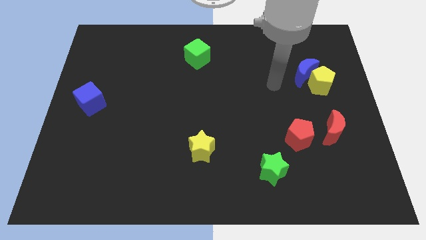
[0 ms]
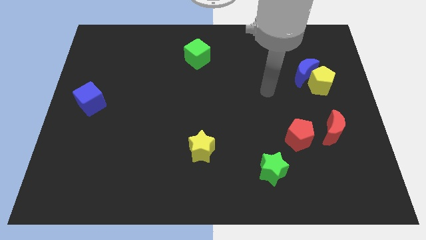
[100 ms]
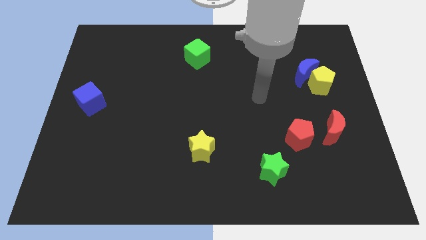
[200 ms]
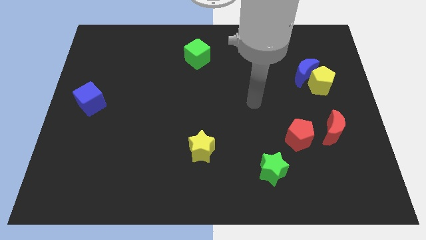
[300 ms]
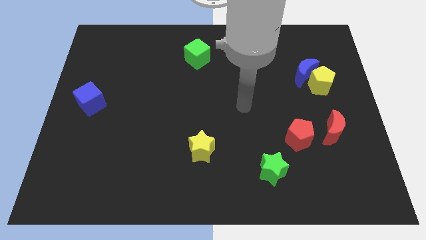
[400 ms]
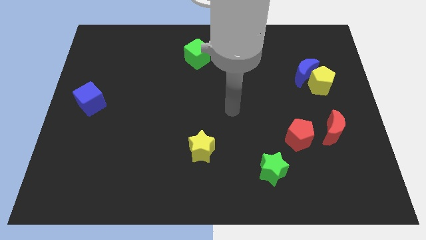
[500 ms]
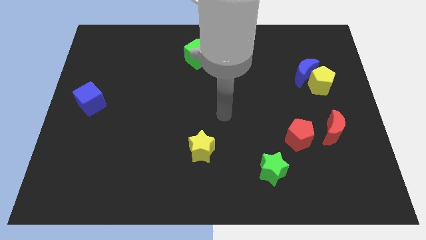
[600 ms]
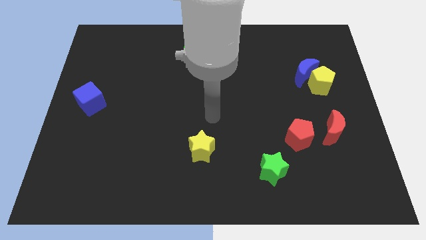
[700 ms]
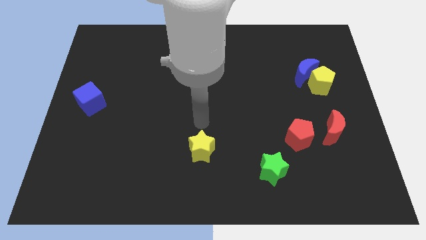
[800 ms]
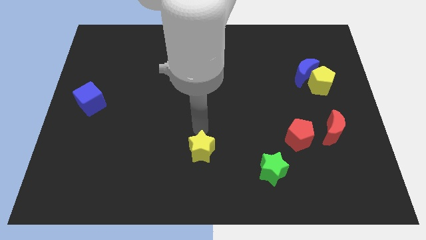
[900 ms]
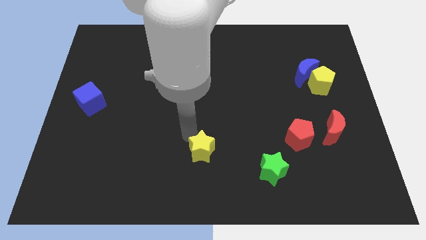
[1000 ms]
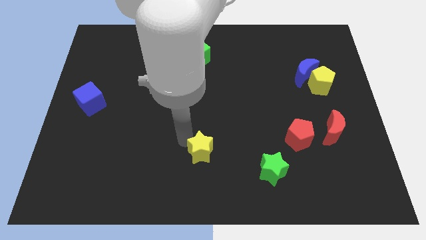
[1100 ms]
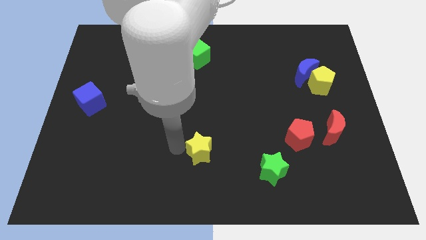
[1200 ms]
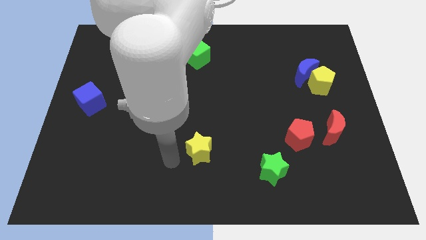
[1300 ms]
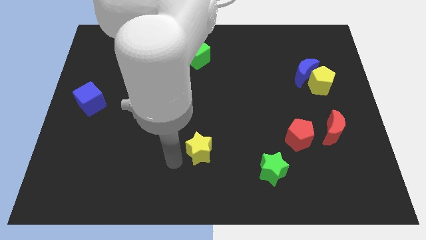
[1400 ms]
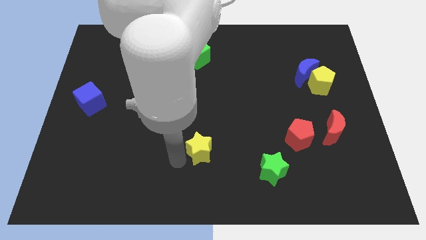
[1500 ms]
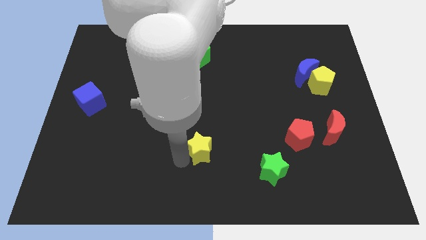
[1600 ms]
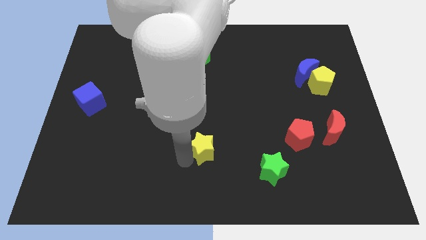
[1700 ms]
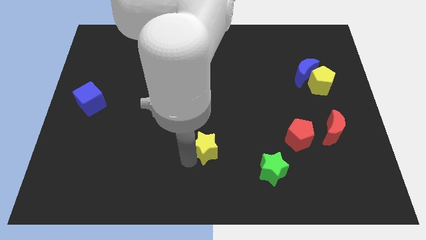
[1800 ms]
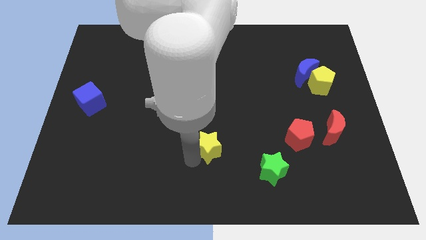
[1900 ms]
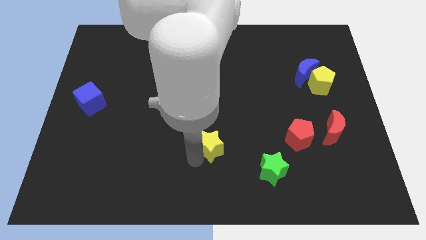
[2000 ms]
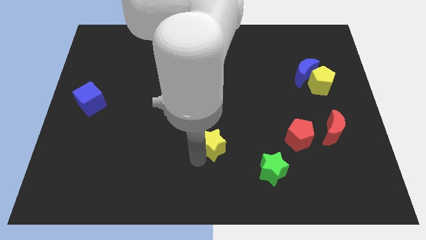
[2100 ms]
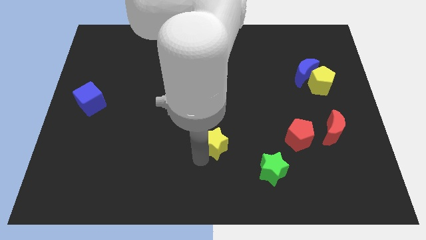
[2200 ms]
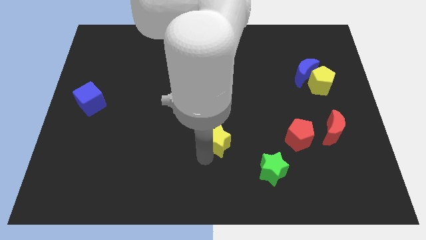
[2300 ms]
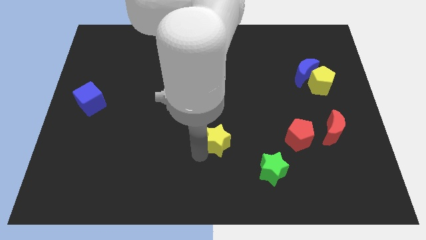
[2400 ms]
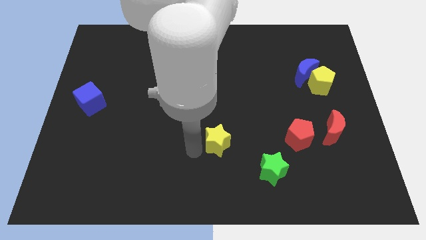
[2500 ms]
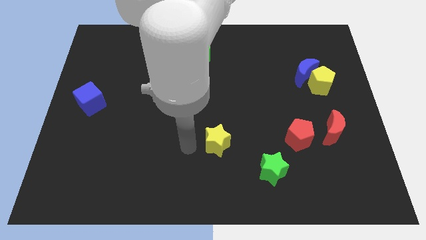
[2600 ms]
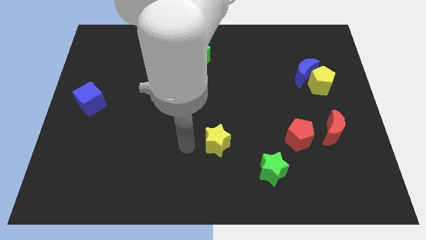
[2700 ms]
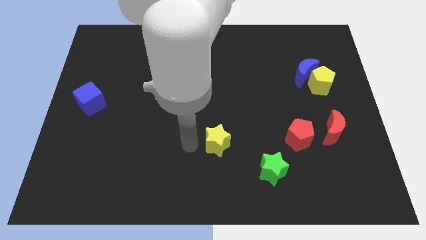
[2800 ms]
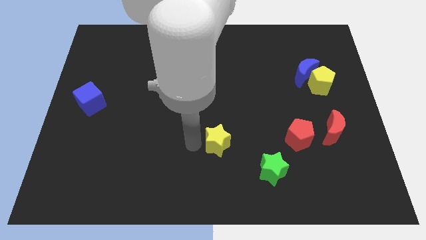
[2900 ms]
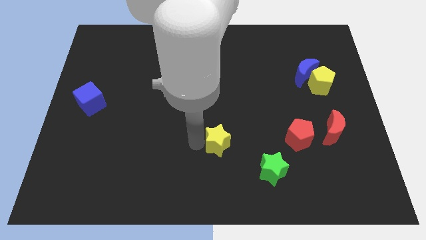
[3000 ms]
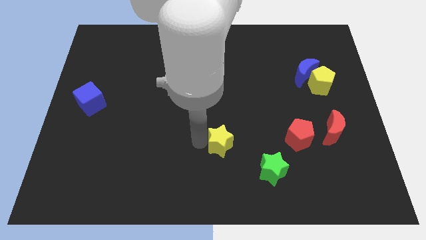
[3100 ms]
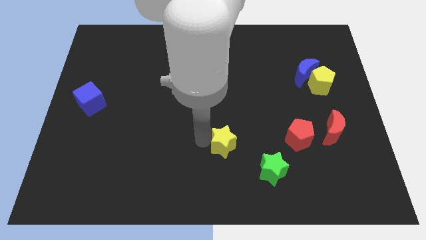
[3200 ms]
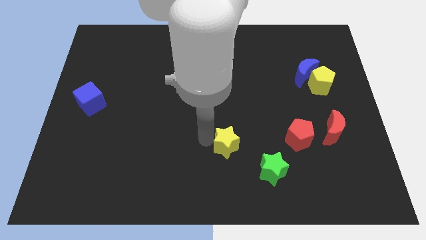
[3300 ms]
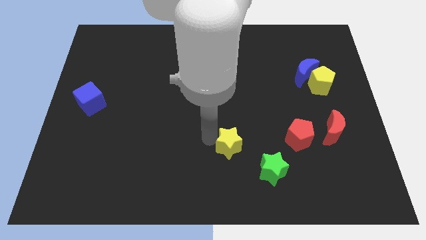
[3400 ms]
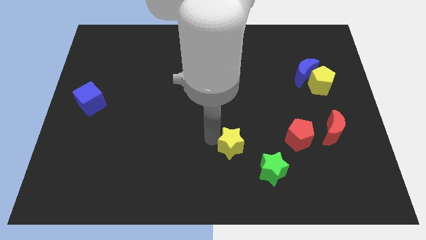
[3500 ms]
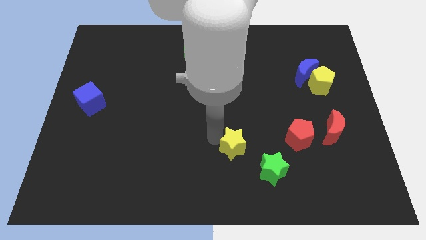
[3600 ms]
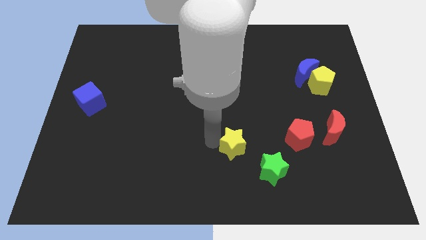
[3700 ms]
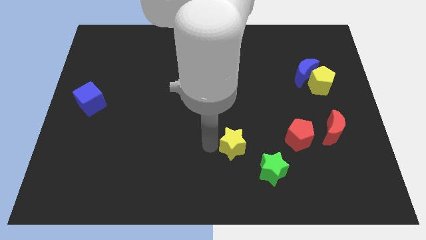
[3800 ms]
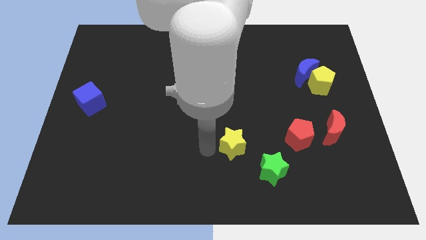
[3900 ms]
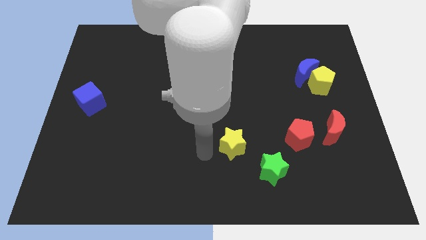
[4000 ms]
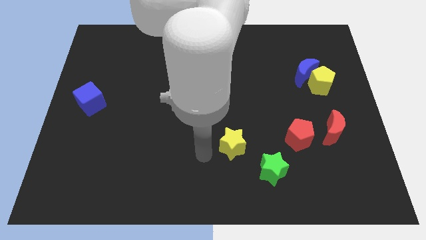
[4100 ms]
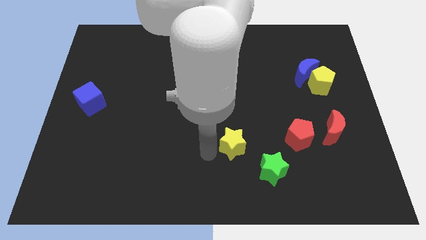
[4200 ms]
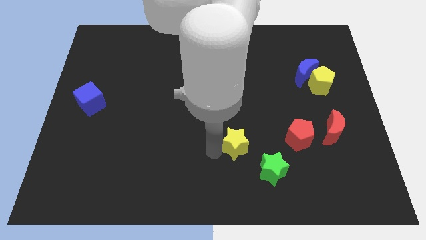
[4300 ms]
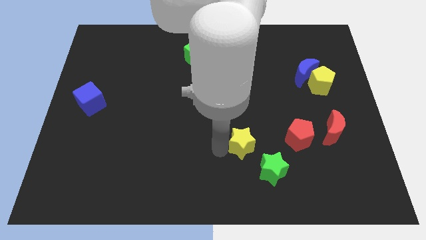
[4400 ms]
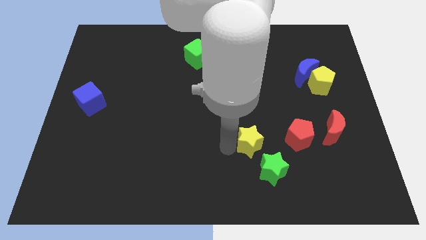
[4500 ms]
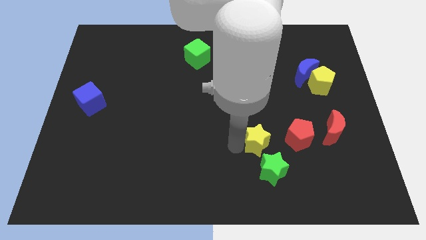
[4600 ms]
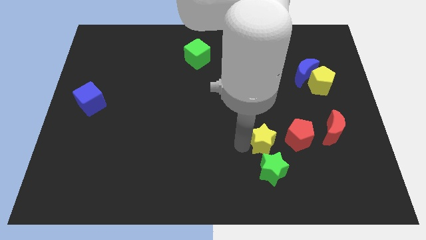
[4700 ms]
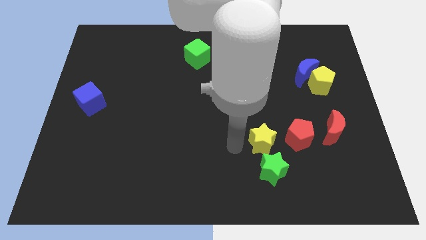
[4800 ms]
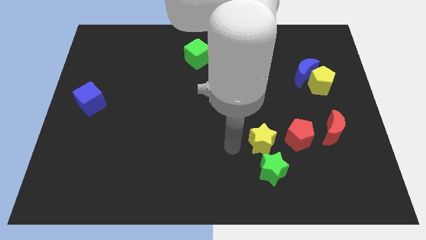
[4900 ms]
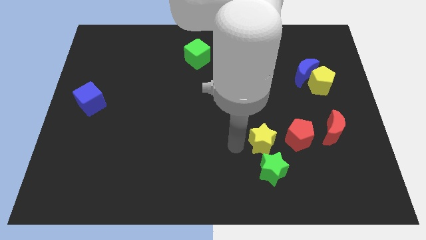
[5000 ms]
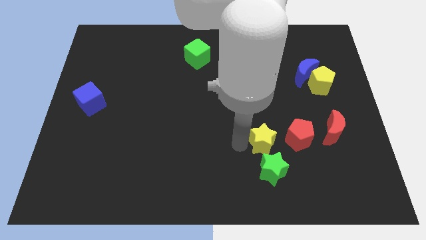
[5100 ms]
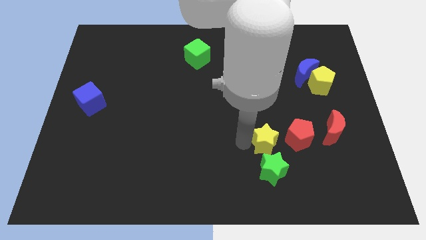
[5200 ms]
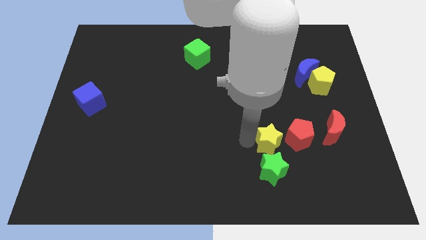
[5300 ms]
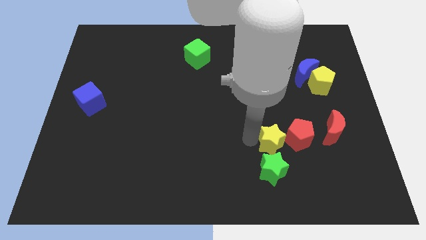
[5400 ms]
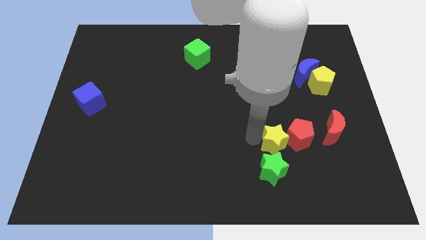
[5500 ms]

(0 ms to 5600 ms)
put the yellow star towards the red pentagon

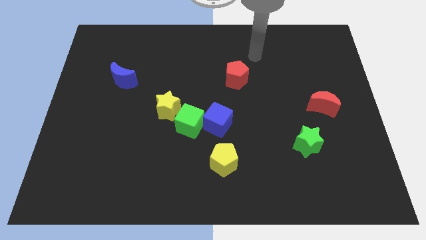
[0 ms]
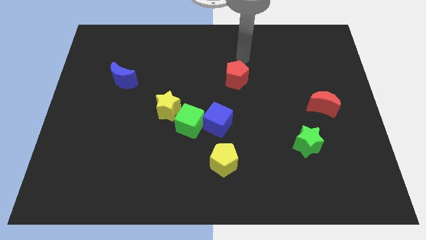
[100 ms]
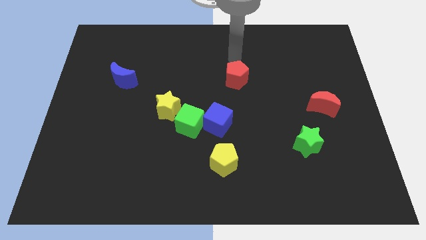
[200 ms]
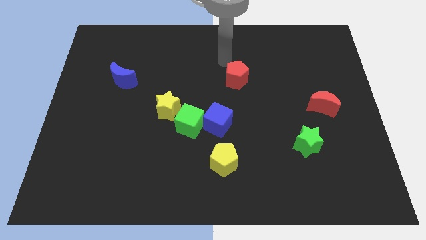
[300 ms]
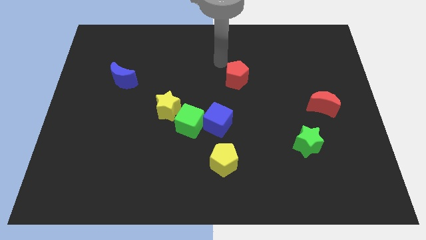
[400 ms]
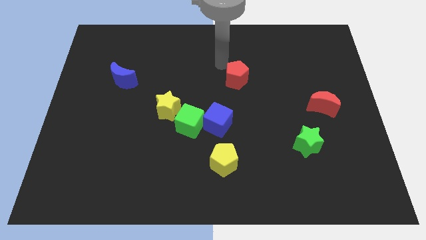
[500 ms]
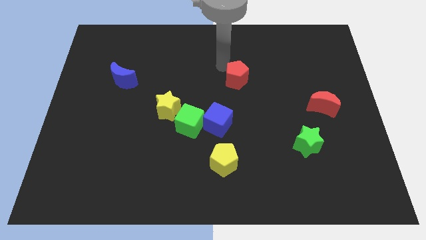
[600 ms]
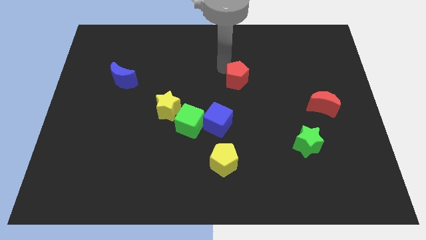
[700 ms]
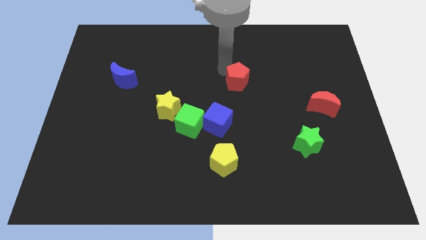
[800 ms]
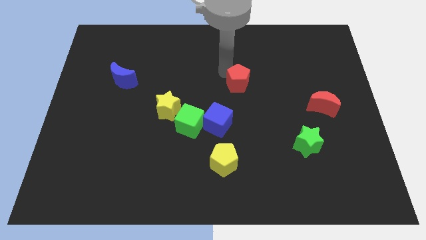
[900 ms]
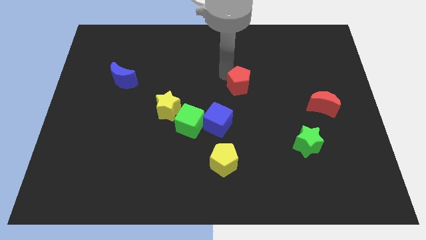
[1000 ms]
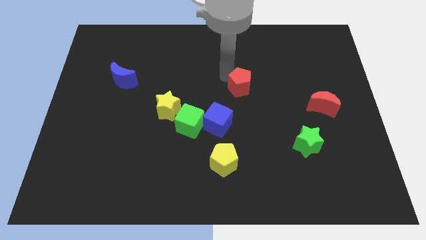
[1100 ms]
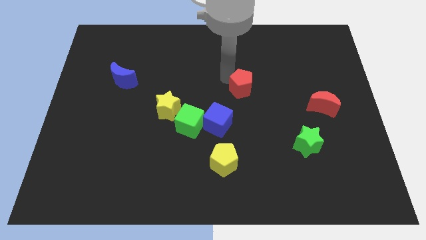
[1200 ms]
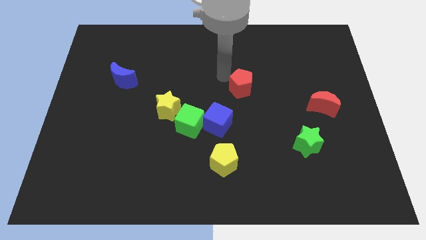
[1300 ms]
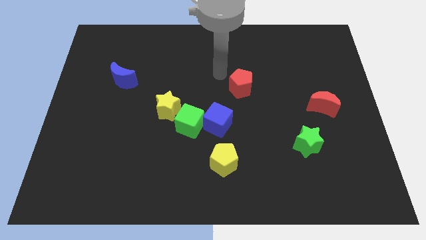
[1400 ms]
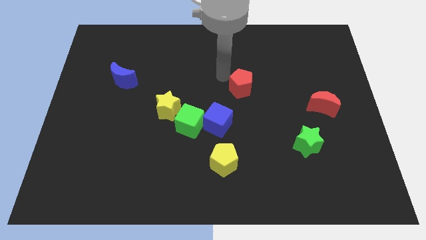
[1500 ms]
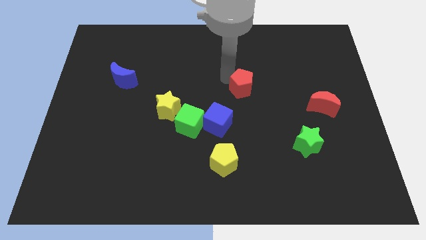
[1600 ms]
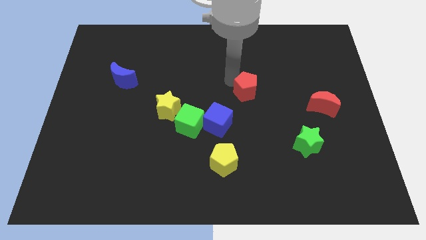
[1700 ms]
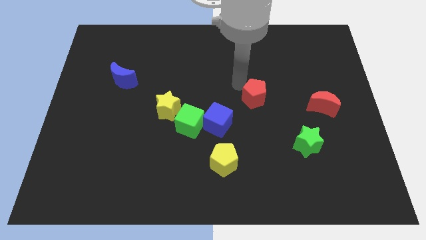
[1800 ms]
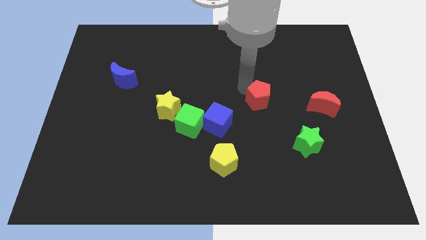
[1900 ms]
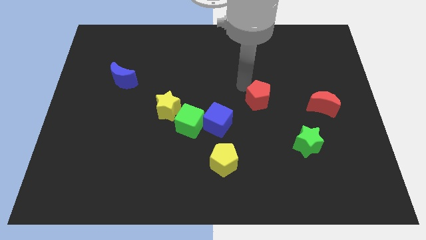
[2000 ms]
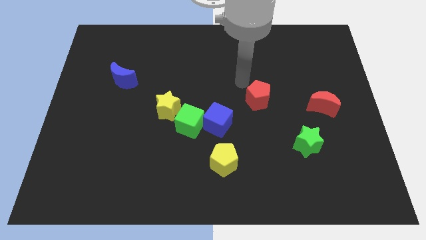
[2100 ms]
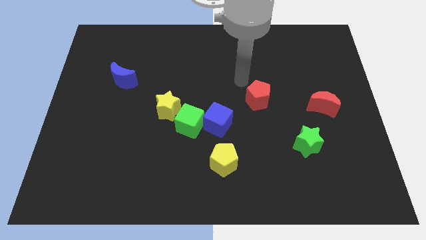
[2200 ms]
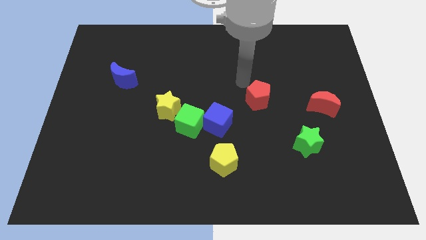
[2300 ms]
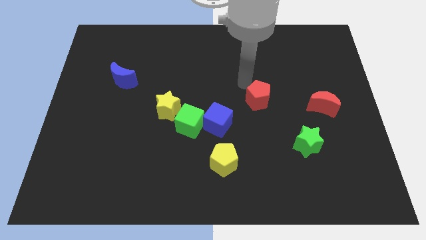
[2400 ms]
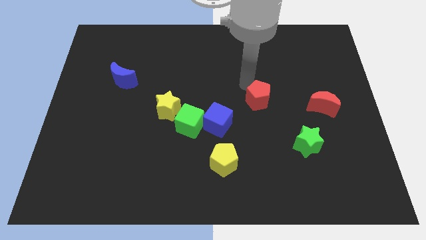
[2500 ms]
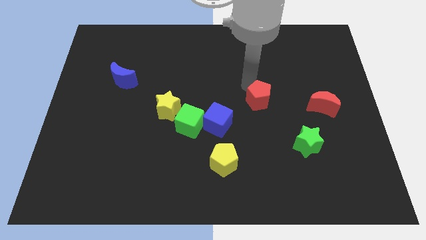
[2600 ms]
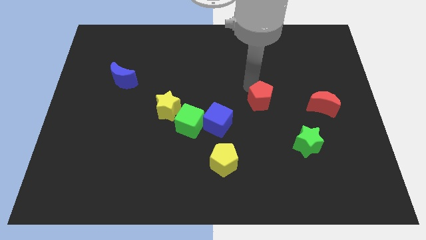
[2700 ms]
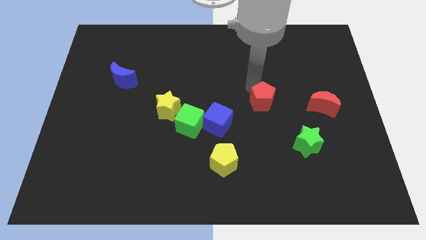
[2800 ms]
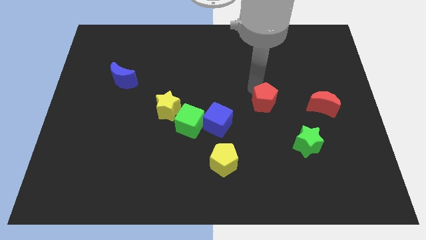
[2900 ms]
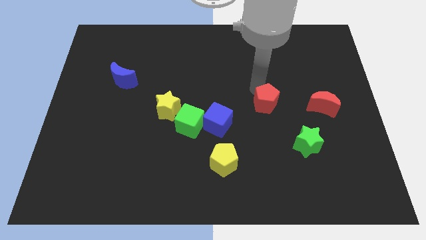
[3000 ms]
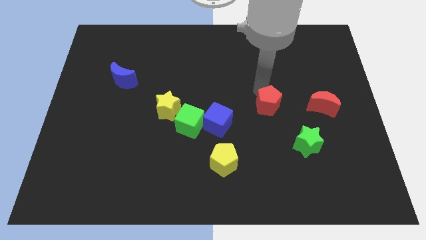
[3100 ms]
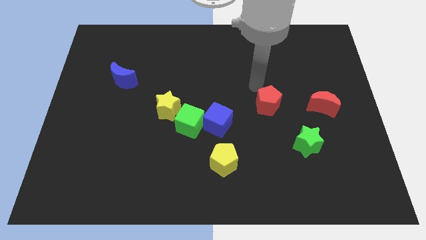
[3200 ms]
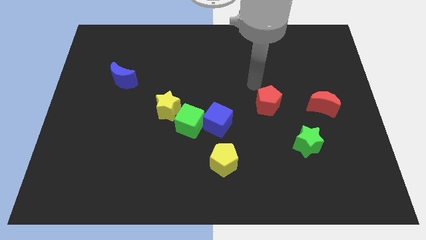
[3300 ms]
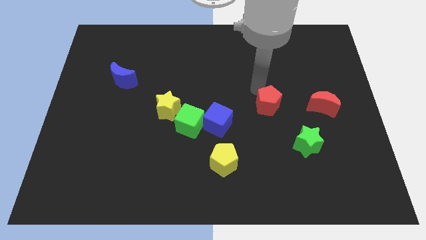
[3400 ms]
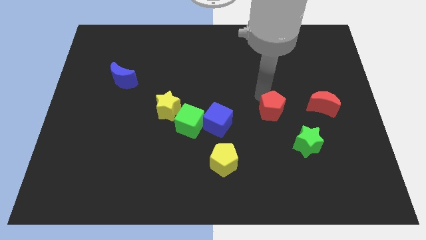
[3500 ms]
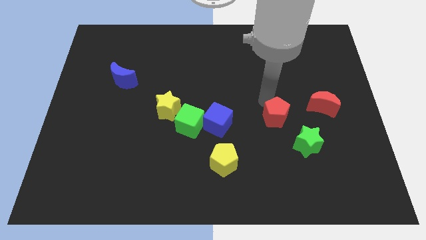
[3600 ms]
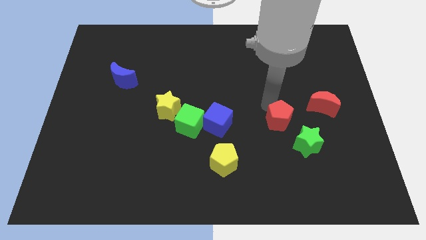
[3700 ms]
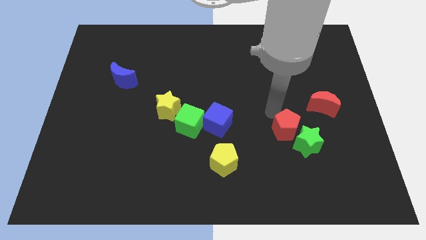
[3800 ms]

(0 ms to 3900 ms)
slide the red pentagon next to the green star
